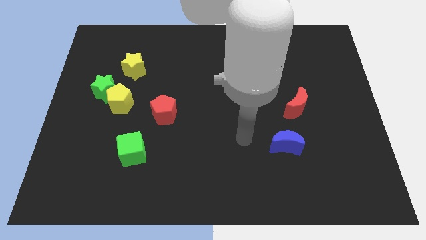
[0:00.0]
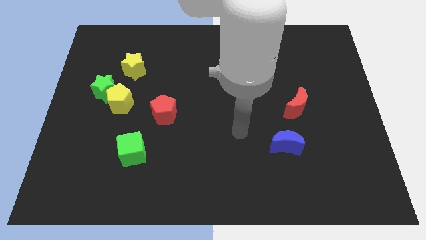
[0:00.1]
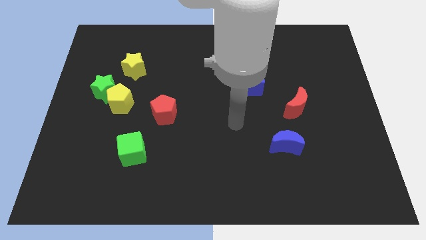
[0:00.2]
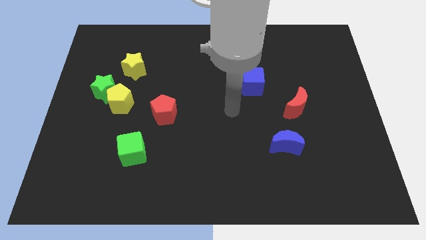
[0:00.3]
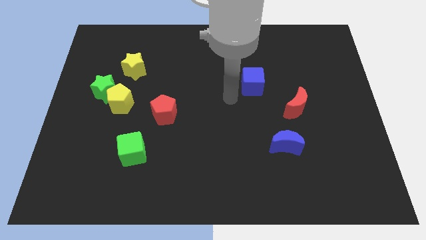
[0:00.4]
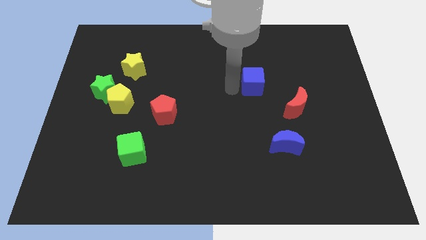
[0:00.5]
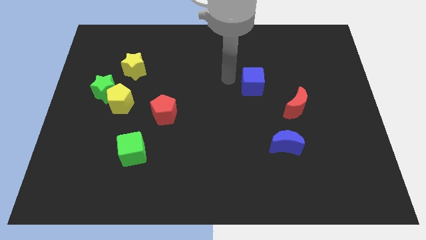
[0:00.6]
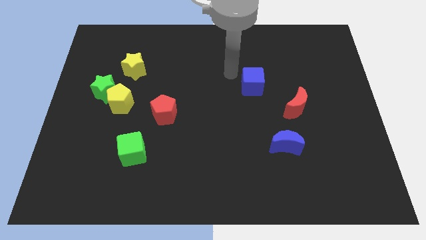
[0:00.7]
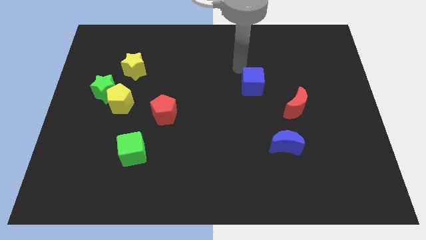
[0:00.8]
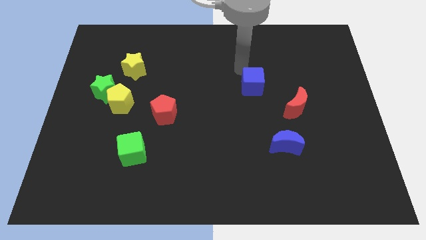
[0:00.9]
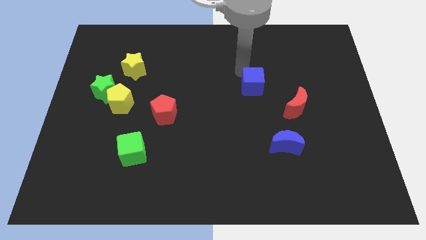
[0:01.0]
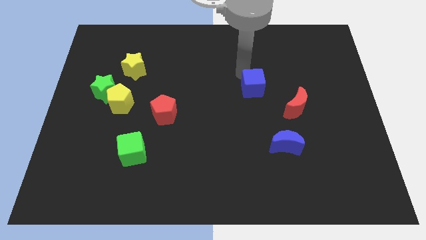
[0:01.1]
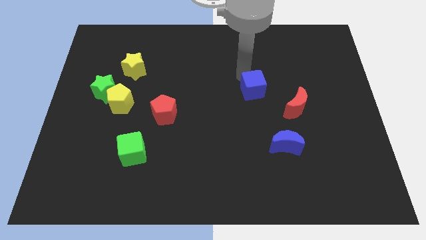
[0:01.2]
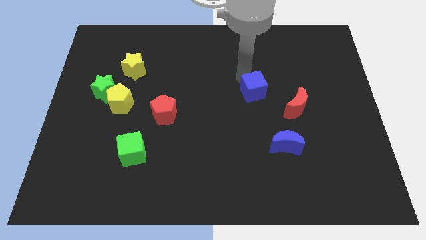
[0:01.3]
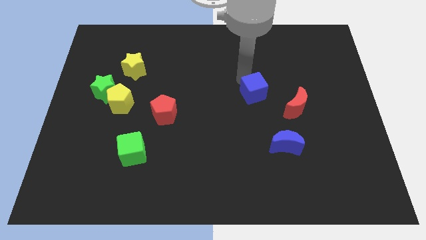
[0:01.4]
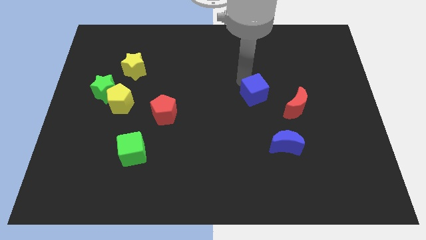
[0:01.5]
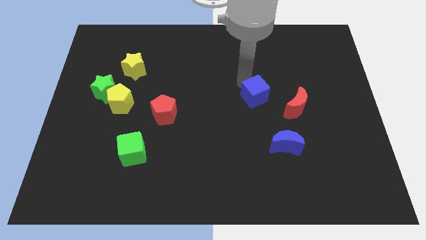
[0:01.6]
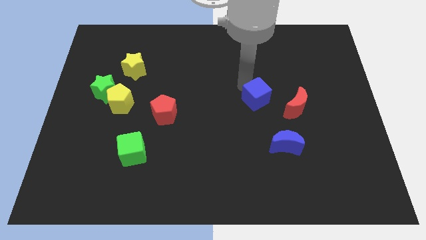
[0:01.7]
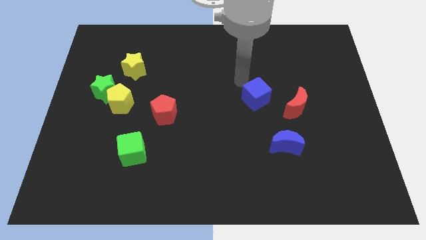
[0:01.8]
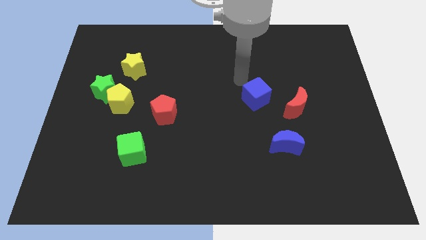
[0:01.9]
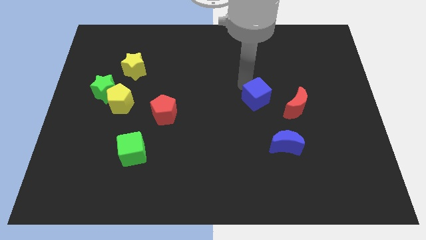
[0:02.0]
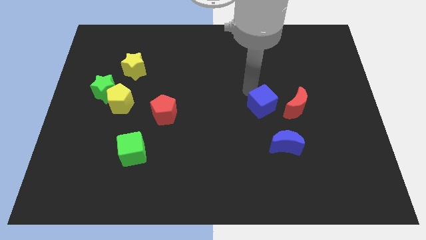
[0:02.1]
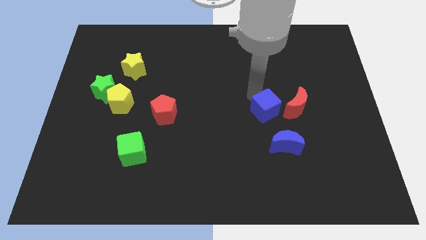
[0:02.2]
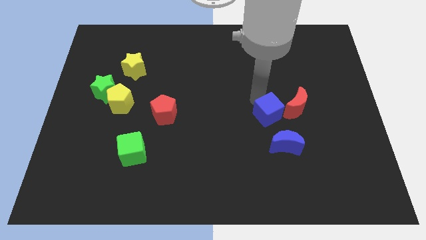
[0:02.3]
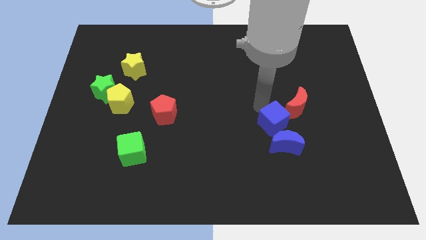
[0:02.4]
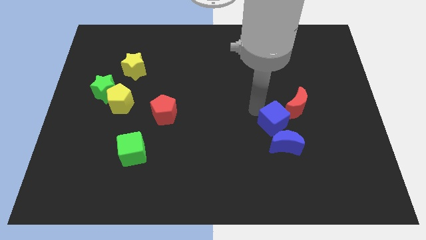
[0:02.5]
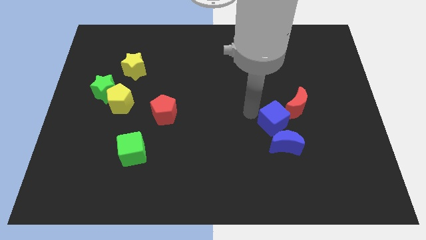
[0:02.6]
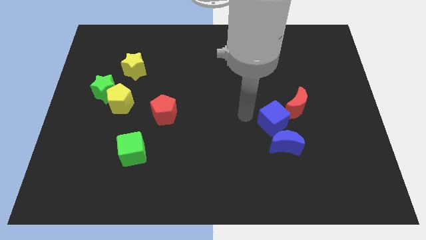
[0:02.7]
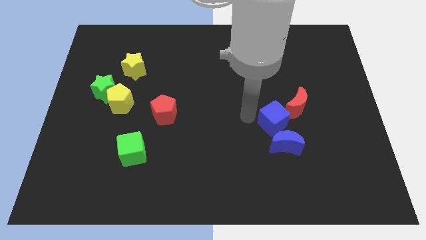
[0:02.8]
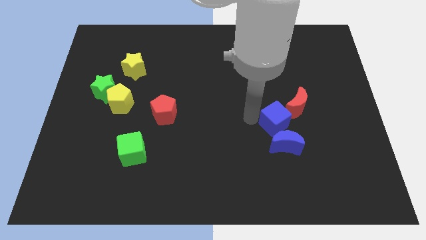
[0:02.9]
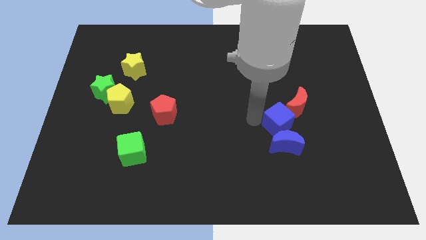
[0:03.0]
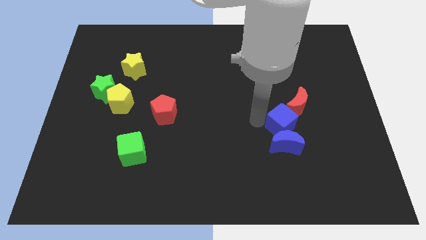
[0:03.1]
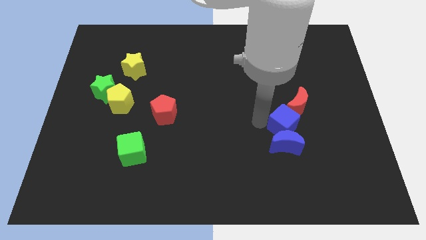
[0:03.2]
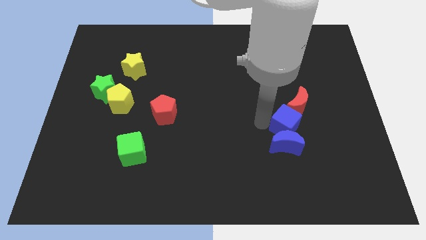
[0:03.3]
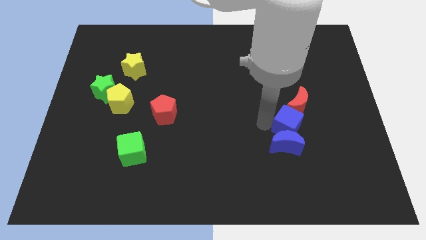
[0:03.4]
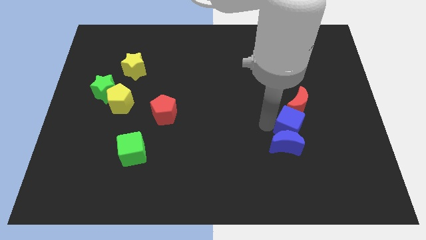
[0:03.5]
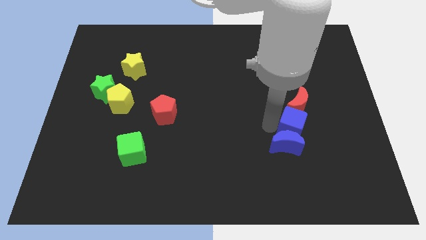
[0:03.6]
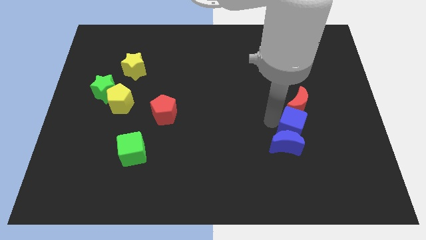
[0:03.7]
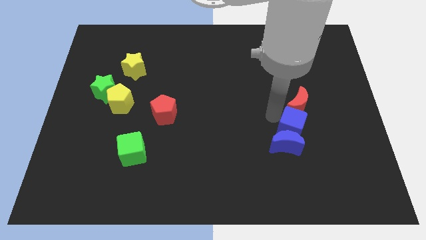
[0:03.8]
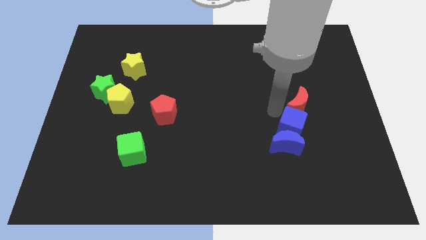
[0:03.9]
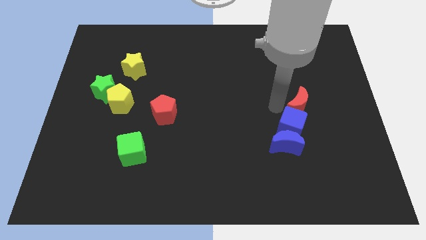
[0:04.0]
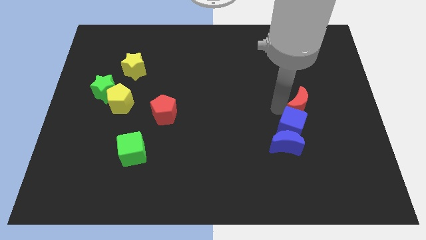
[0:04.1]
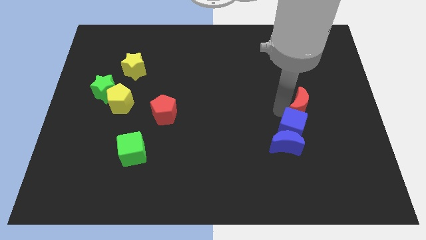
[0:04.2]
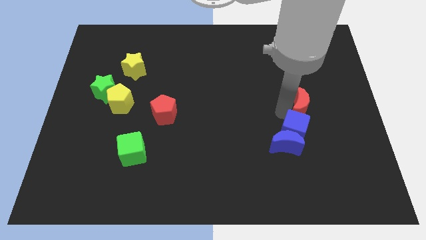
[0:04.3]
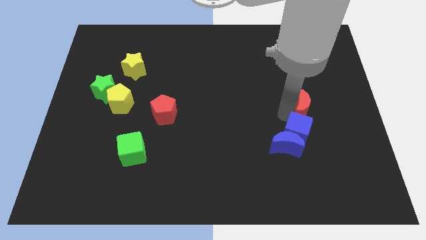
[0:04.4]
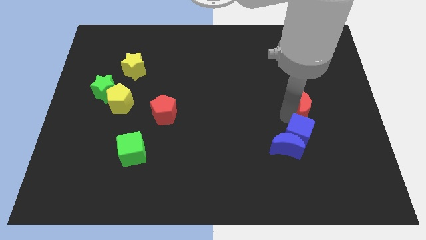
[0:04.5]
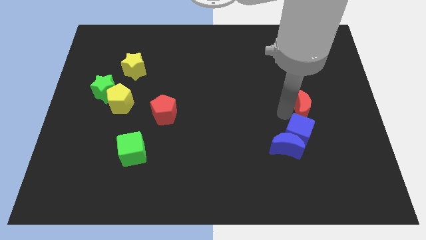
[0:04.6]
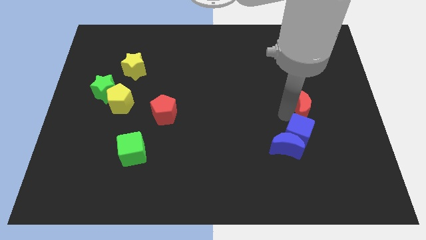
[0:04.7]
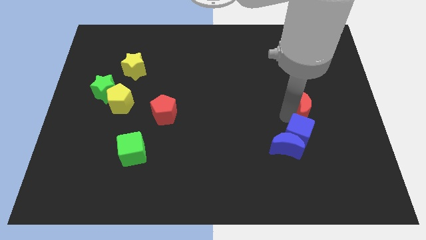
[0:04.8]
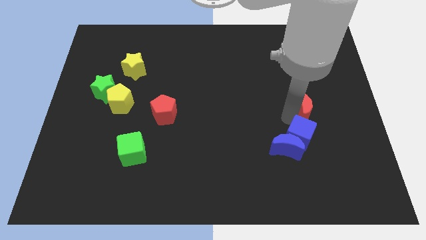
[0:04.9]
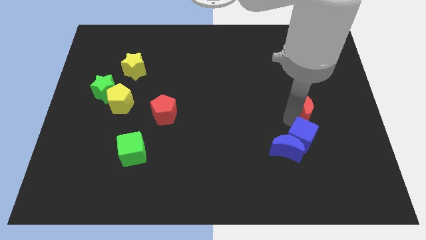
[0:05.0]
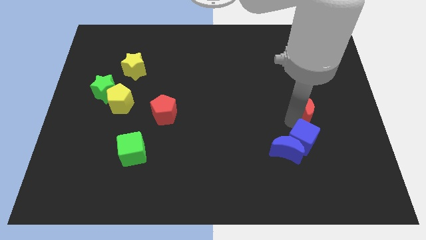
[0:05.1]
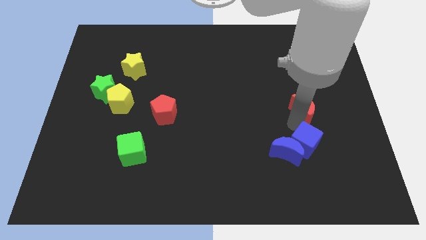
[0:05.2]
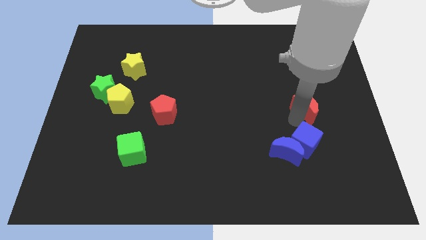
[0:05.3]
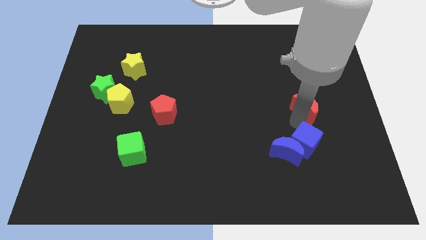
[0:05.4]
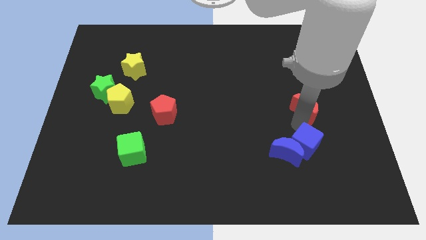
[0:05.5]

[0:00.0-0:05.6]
put the blue cube to the bottom right of the blue moon

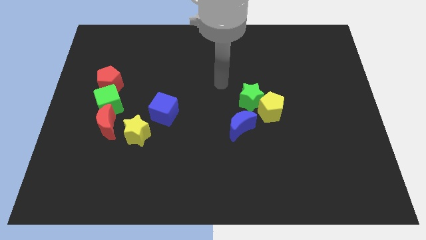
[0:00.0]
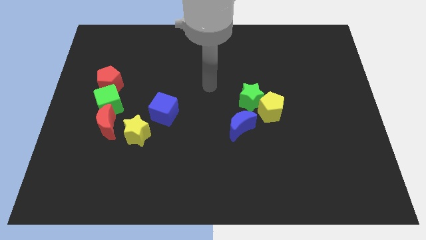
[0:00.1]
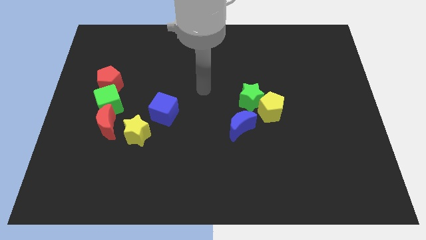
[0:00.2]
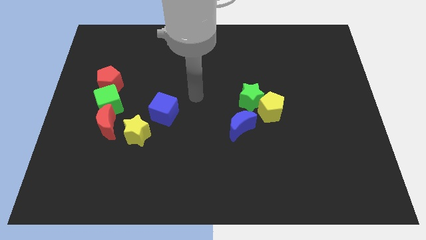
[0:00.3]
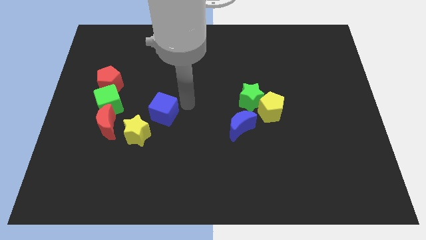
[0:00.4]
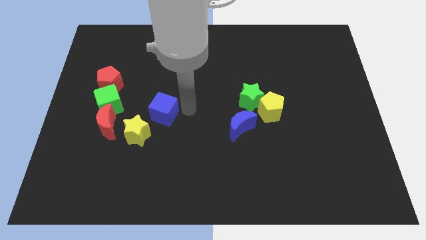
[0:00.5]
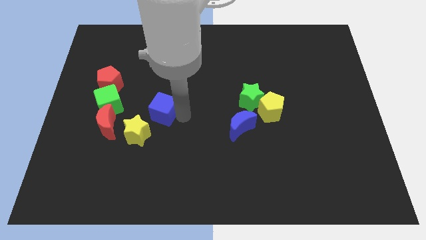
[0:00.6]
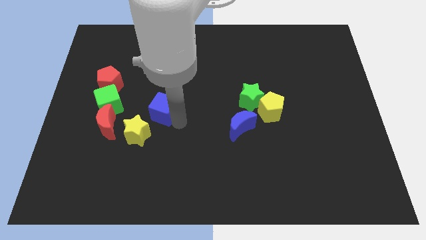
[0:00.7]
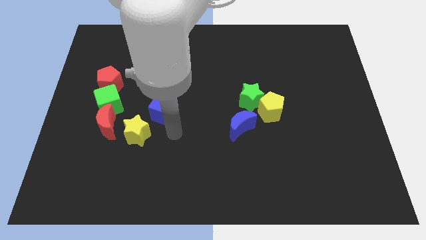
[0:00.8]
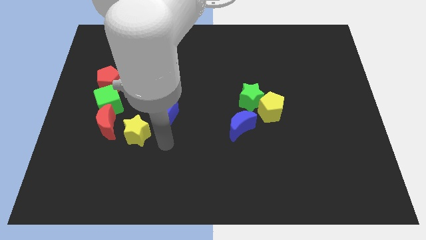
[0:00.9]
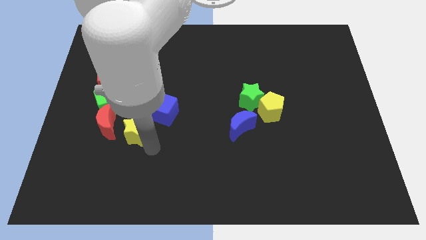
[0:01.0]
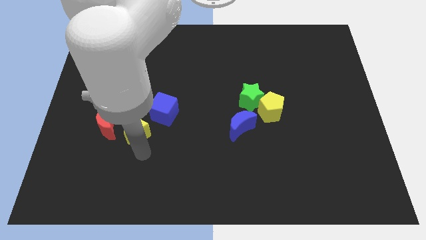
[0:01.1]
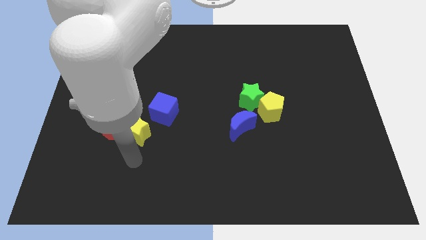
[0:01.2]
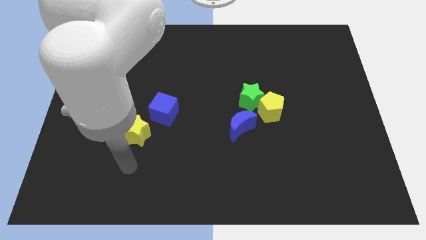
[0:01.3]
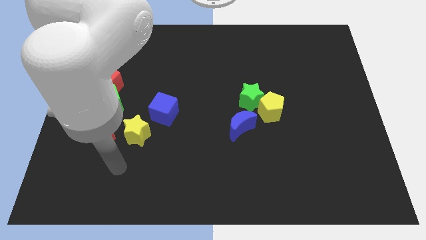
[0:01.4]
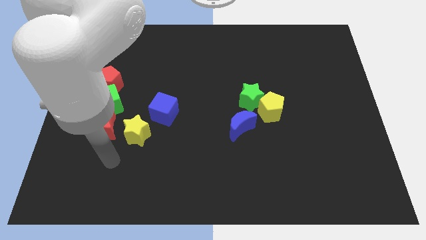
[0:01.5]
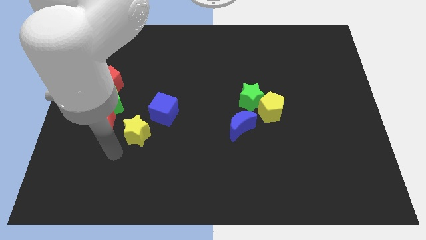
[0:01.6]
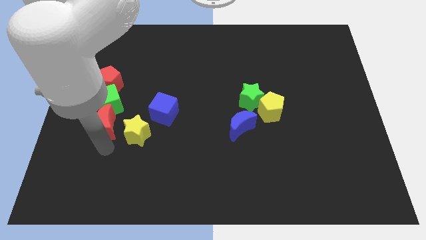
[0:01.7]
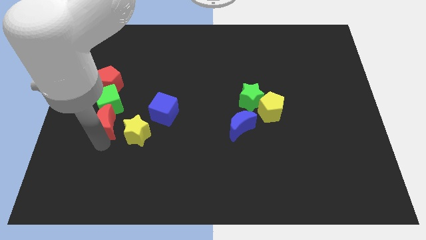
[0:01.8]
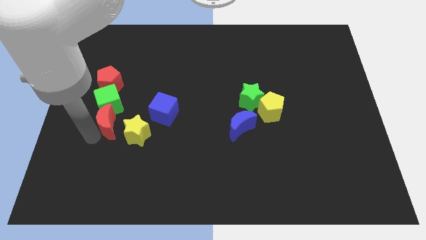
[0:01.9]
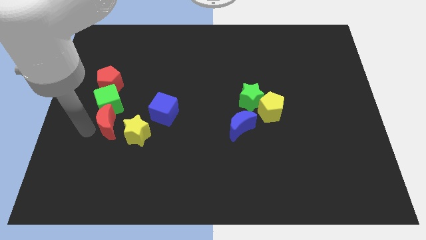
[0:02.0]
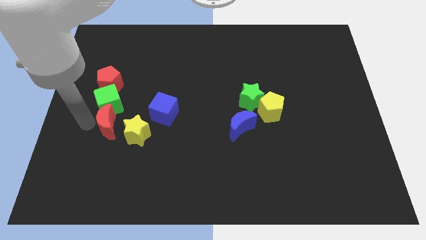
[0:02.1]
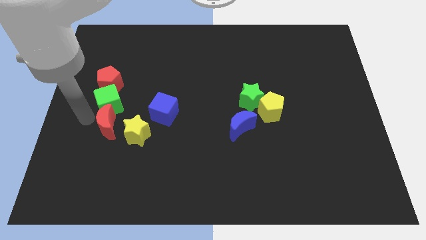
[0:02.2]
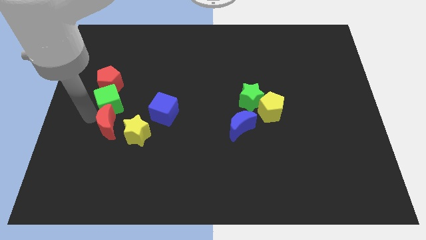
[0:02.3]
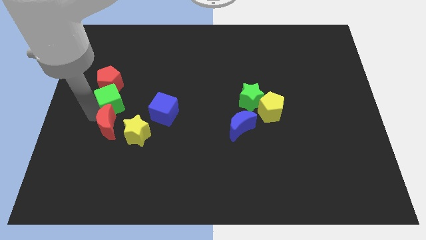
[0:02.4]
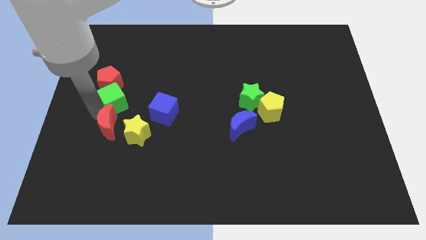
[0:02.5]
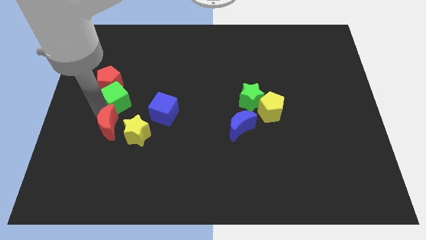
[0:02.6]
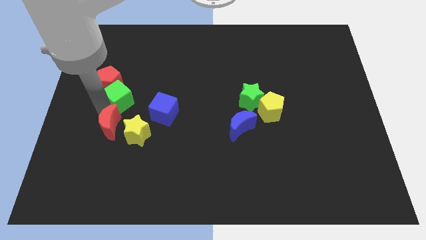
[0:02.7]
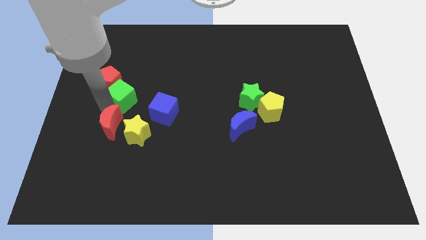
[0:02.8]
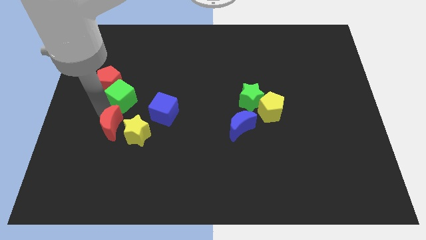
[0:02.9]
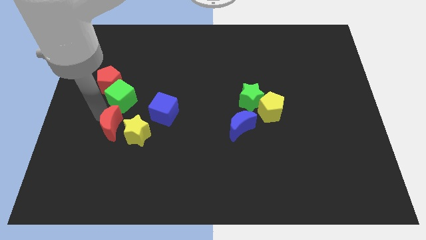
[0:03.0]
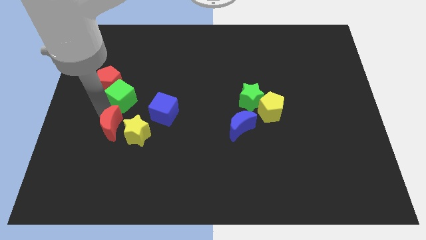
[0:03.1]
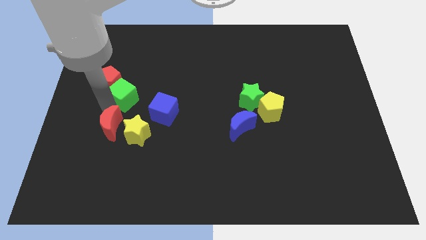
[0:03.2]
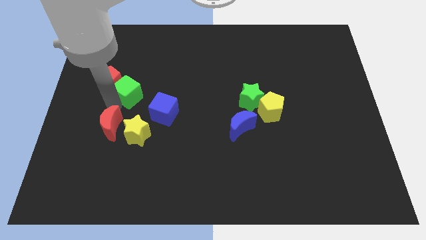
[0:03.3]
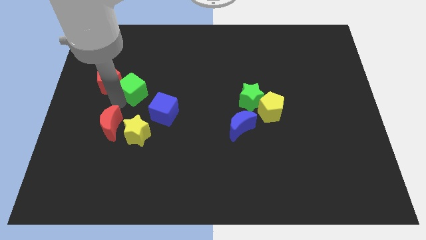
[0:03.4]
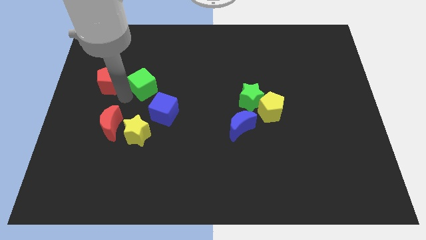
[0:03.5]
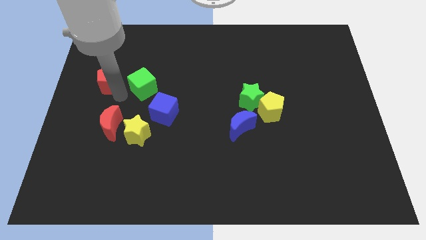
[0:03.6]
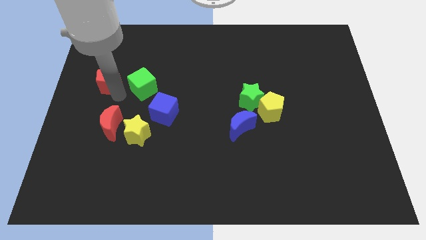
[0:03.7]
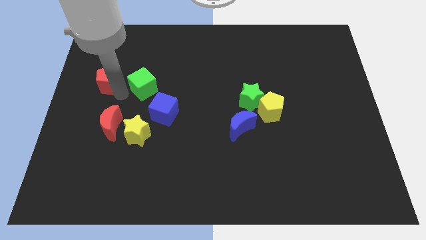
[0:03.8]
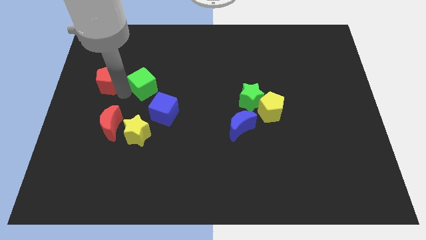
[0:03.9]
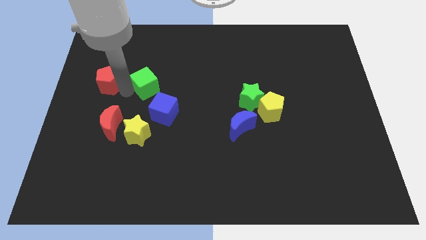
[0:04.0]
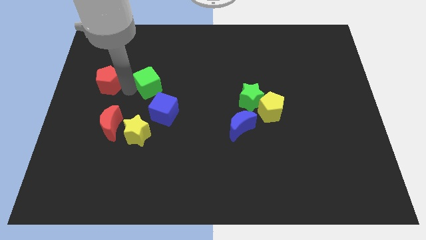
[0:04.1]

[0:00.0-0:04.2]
push the green cube above the blue cube
